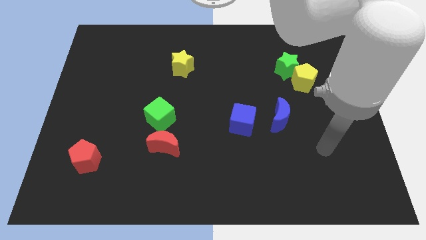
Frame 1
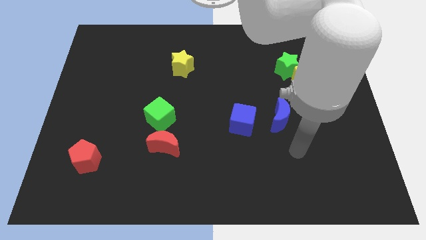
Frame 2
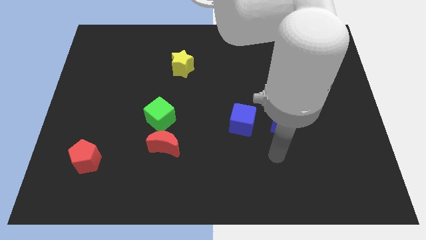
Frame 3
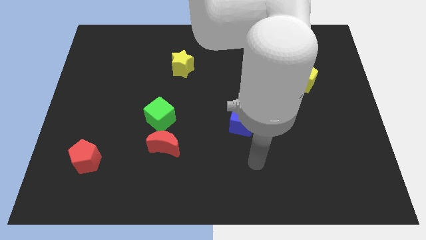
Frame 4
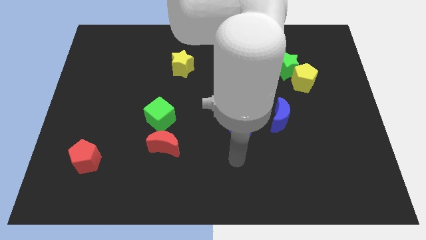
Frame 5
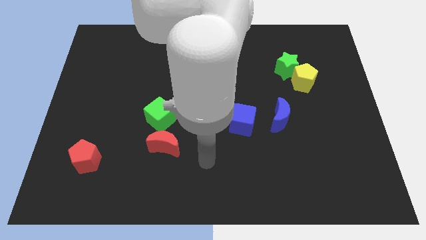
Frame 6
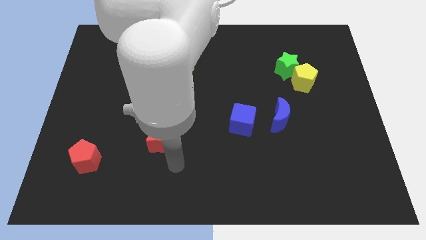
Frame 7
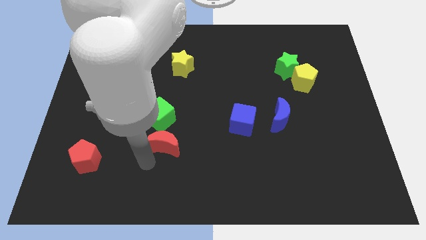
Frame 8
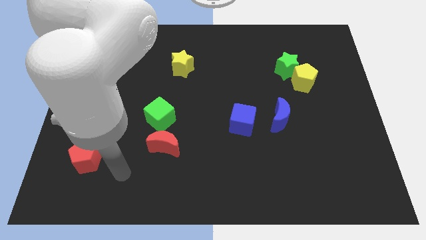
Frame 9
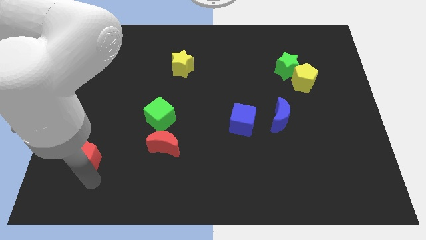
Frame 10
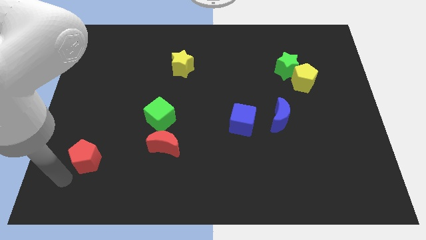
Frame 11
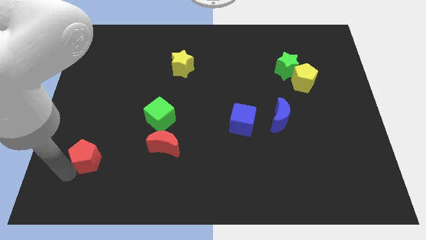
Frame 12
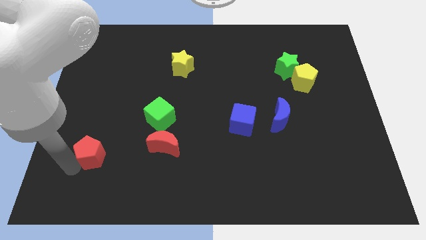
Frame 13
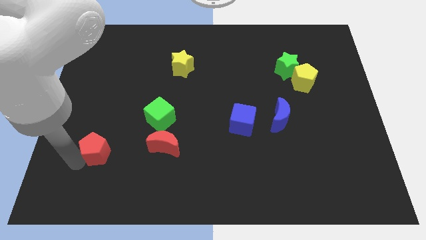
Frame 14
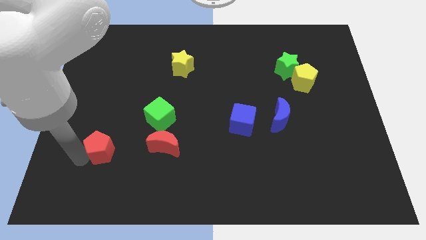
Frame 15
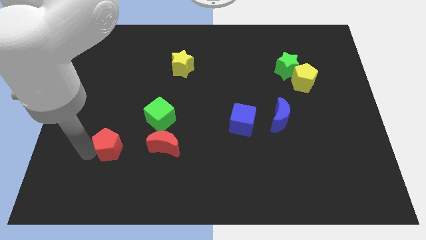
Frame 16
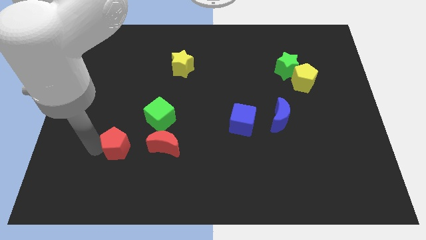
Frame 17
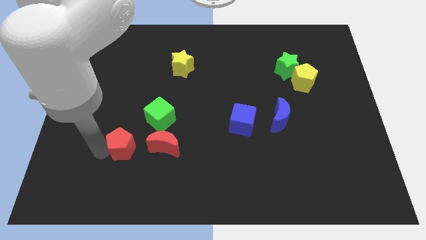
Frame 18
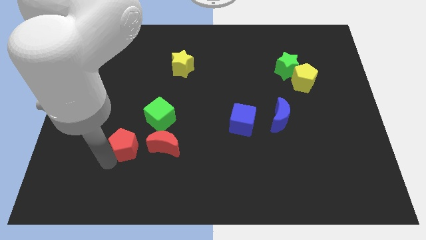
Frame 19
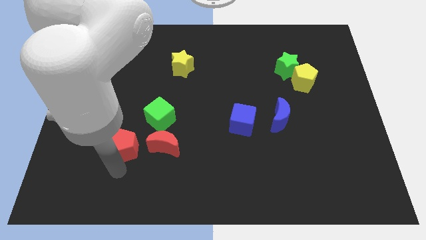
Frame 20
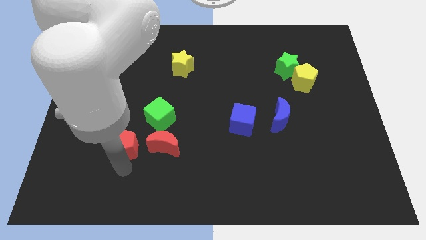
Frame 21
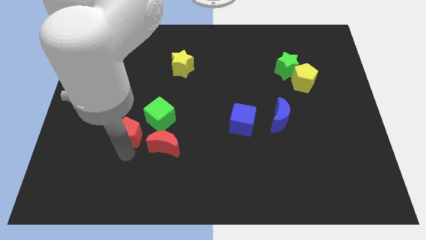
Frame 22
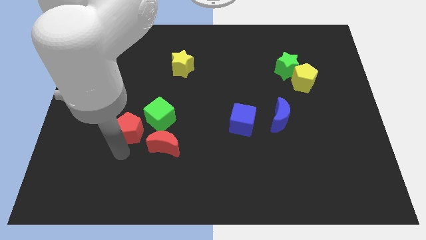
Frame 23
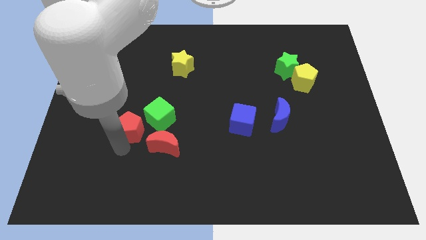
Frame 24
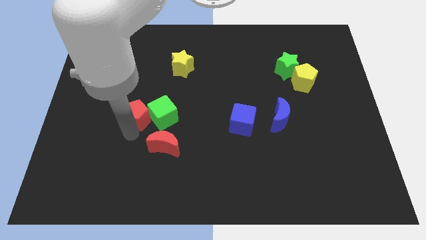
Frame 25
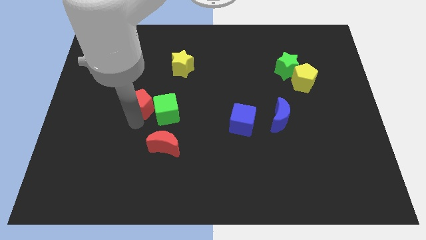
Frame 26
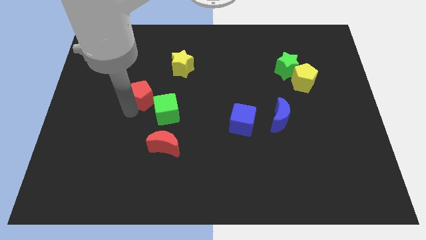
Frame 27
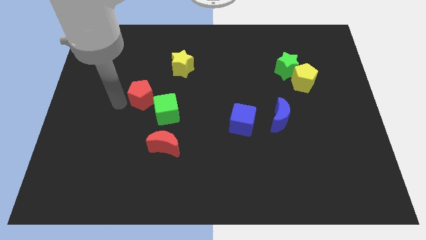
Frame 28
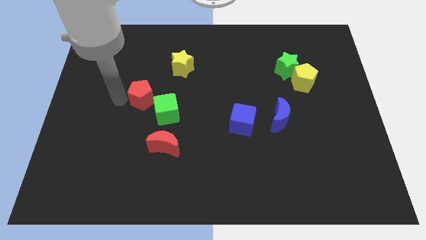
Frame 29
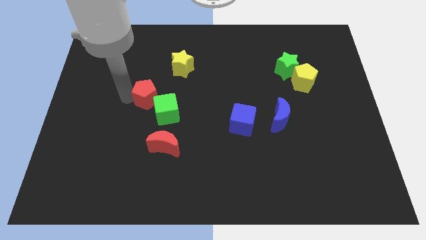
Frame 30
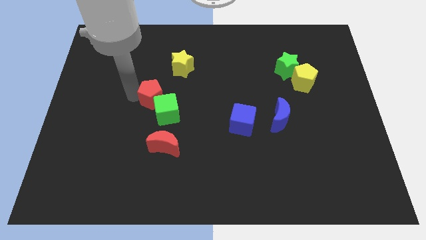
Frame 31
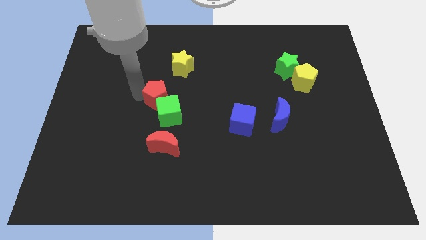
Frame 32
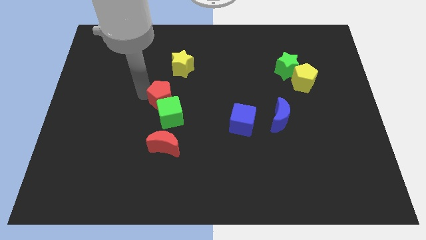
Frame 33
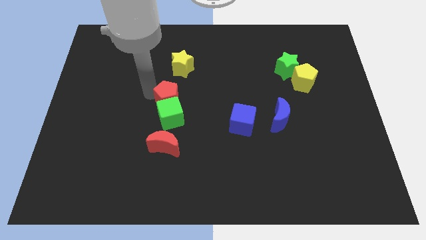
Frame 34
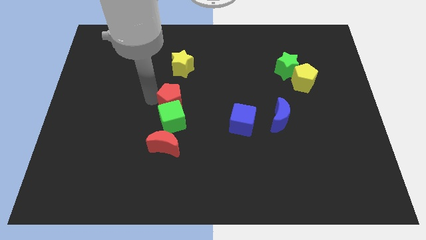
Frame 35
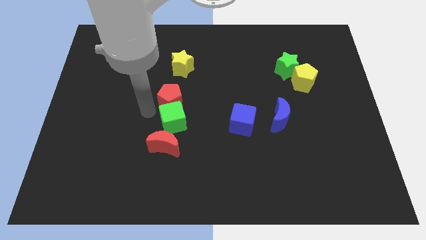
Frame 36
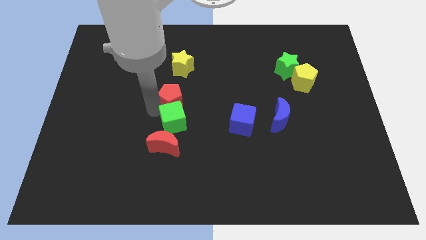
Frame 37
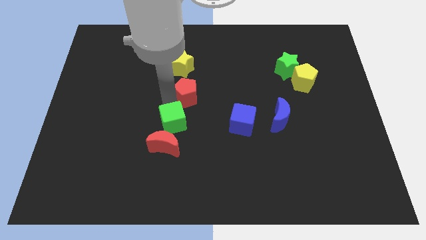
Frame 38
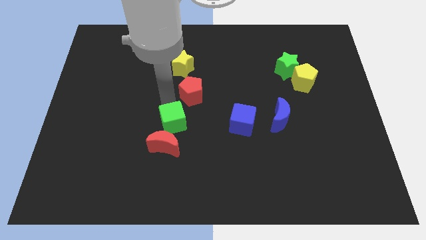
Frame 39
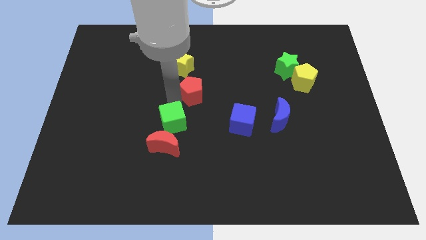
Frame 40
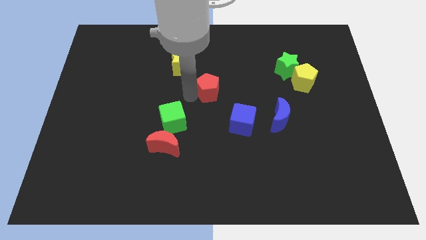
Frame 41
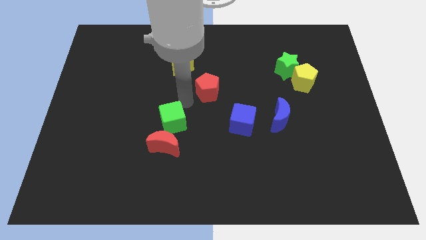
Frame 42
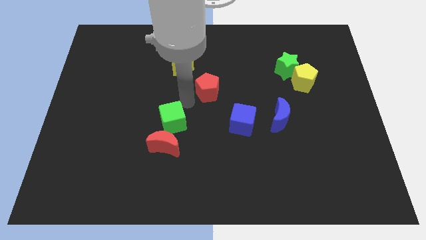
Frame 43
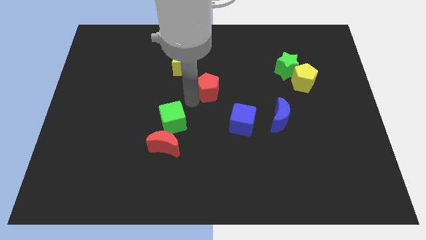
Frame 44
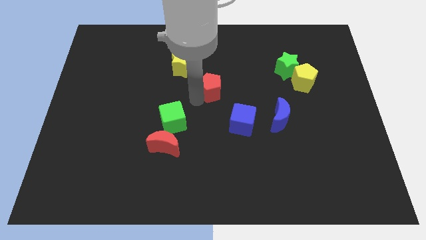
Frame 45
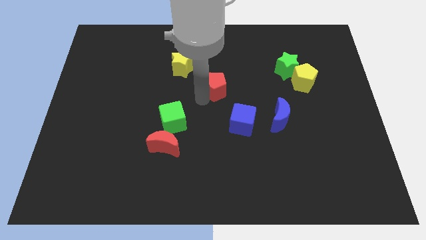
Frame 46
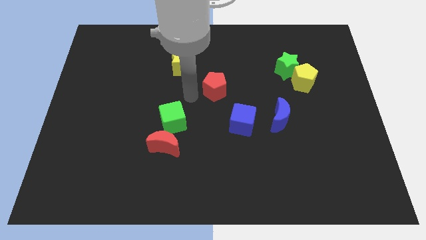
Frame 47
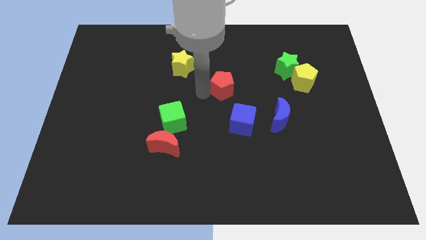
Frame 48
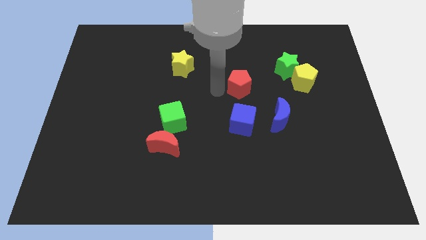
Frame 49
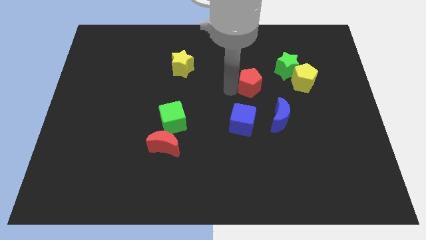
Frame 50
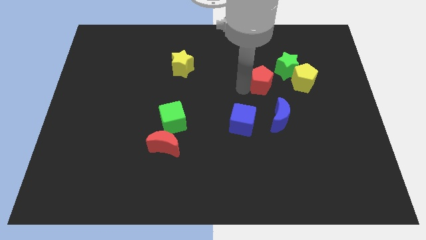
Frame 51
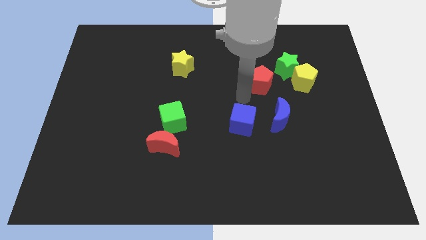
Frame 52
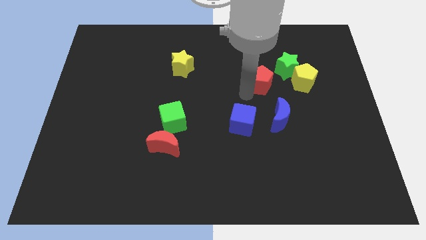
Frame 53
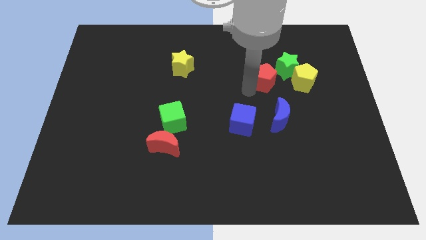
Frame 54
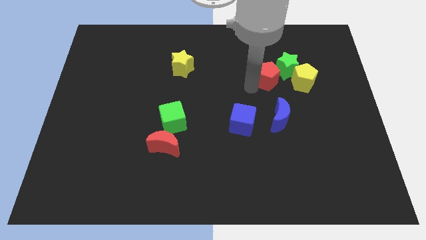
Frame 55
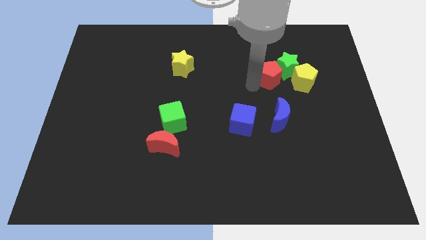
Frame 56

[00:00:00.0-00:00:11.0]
slide the red pentagon close to the green star

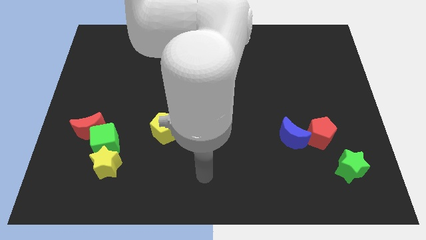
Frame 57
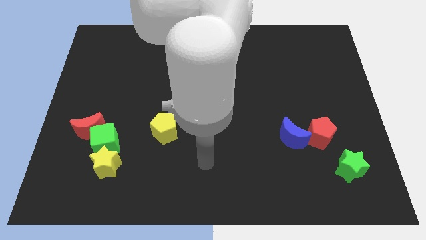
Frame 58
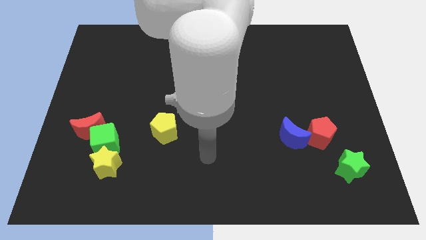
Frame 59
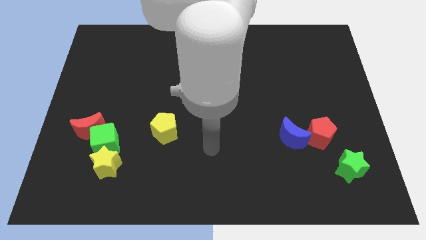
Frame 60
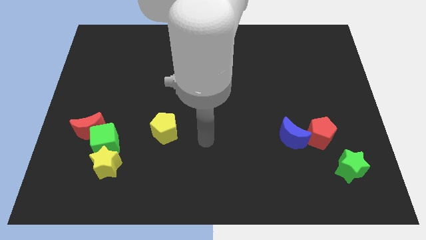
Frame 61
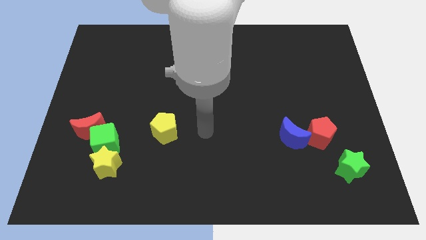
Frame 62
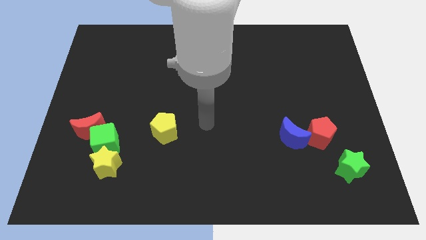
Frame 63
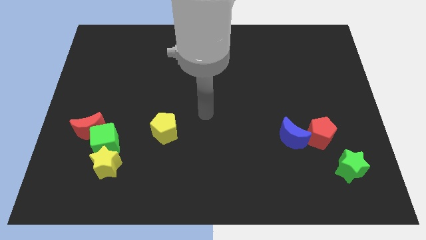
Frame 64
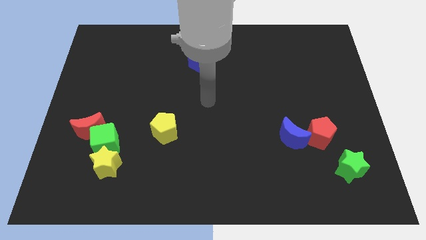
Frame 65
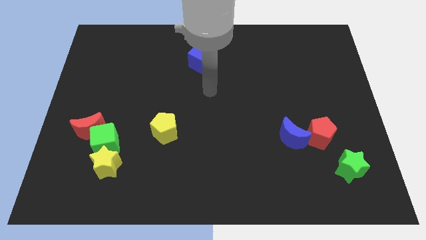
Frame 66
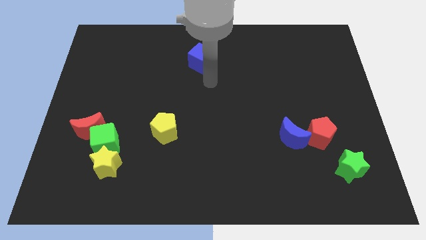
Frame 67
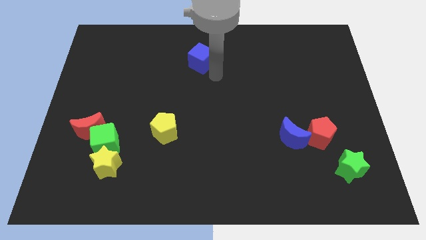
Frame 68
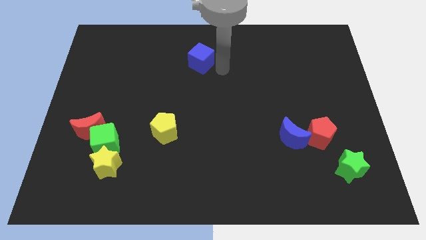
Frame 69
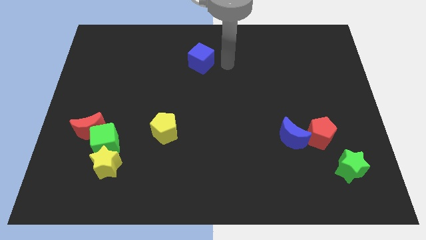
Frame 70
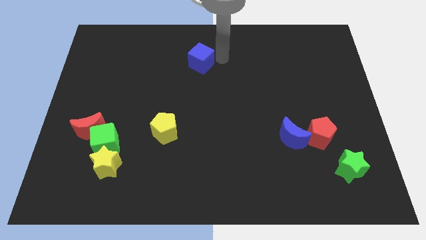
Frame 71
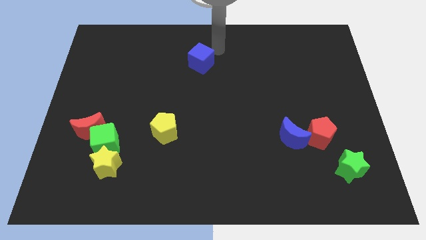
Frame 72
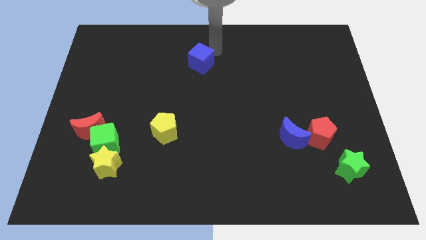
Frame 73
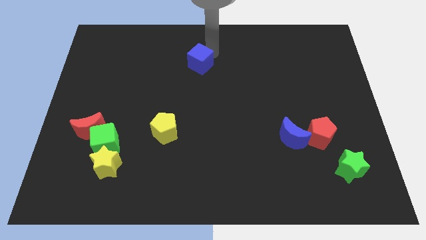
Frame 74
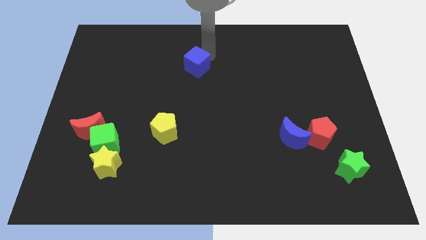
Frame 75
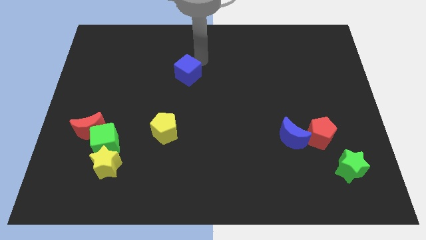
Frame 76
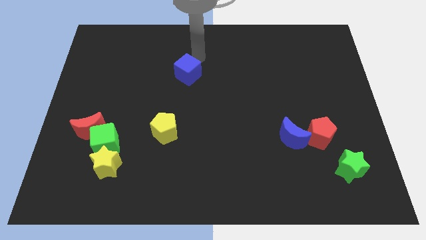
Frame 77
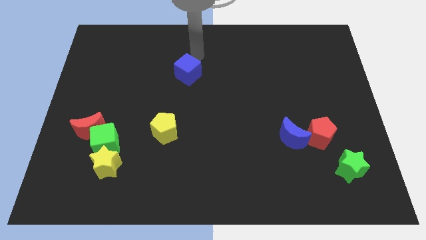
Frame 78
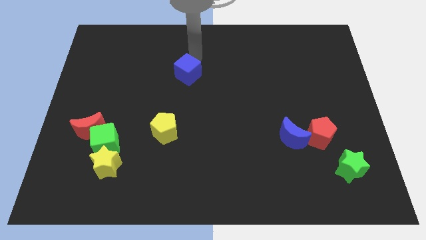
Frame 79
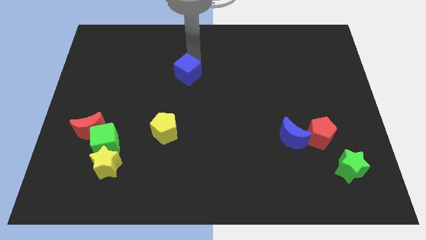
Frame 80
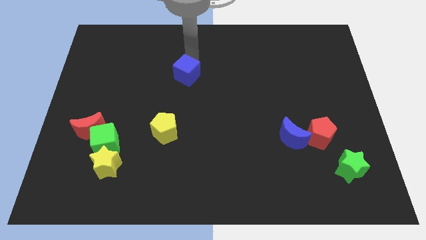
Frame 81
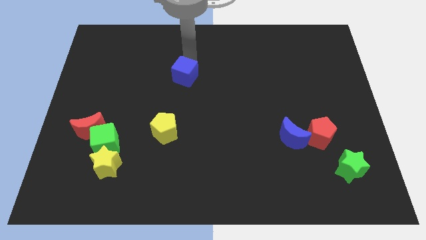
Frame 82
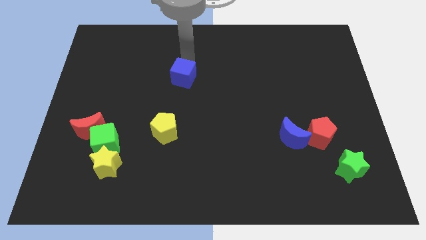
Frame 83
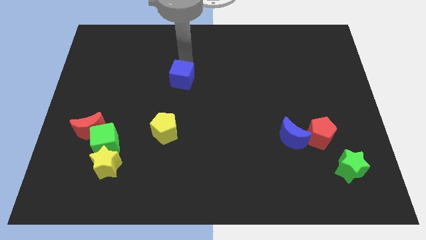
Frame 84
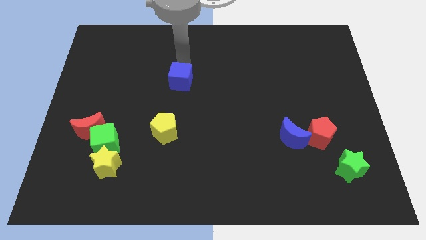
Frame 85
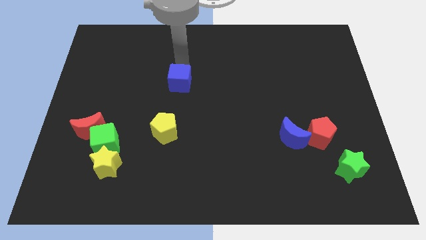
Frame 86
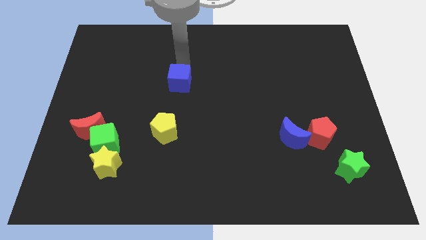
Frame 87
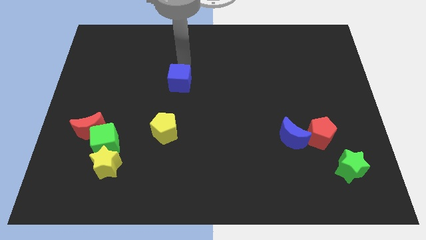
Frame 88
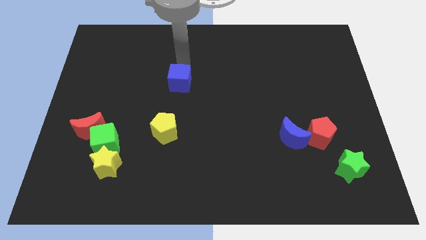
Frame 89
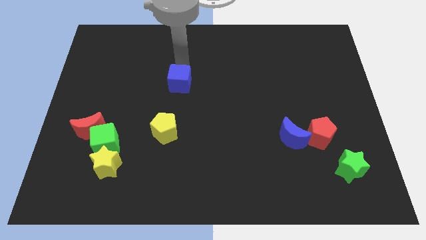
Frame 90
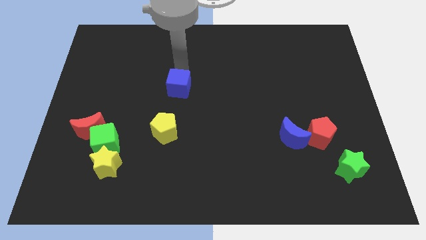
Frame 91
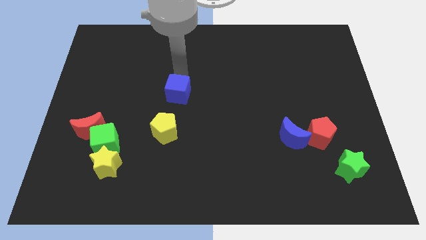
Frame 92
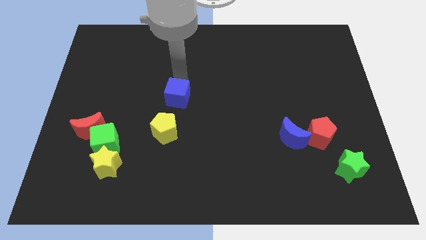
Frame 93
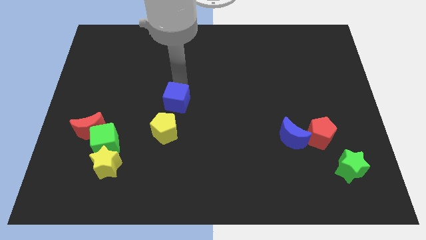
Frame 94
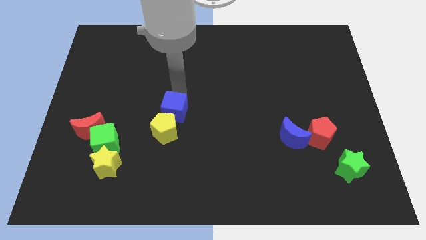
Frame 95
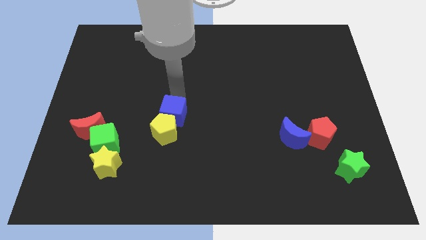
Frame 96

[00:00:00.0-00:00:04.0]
push the blue cube towards the yellow pentagon
